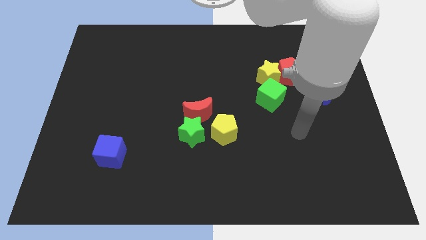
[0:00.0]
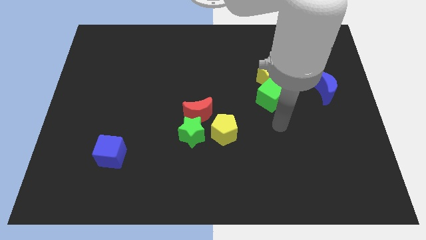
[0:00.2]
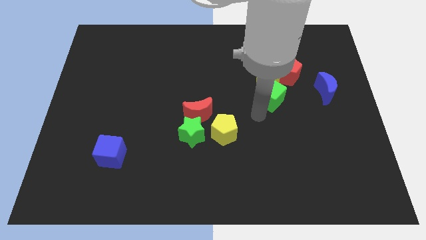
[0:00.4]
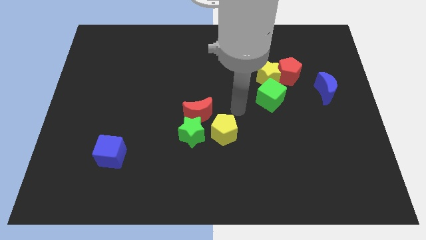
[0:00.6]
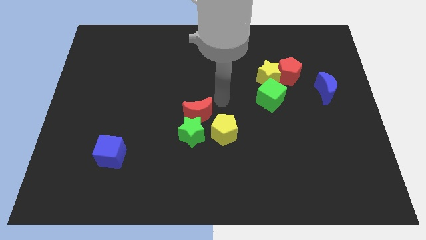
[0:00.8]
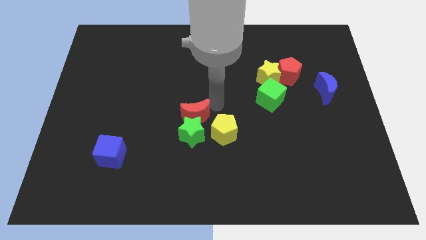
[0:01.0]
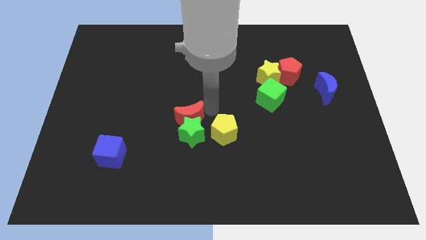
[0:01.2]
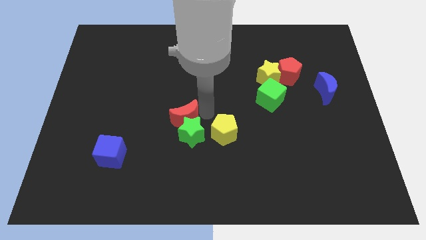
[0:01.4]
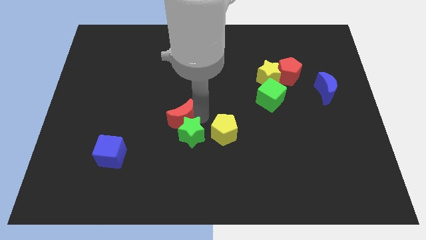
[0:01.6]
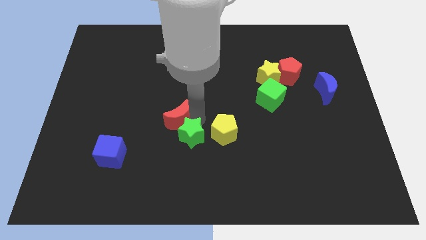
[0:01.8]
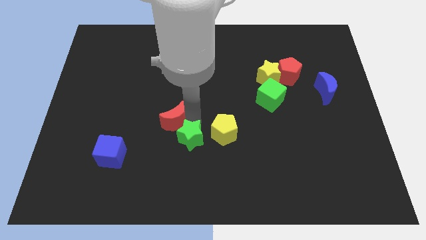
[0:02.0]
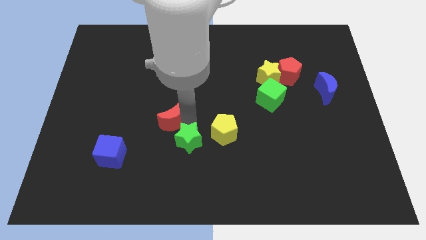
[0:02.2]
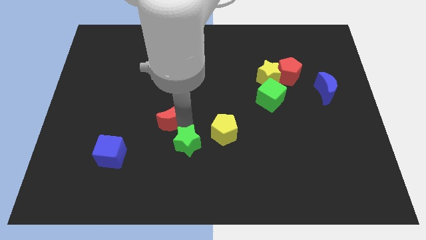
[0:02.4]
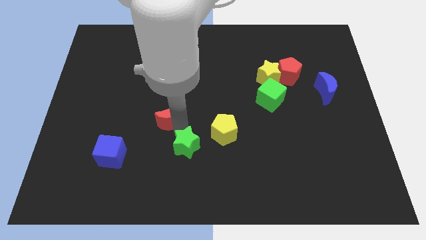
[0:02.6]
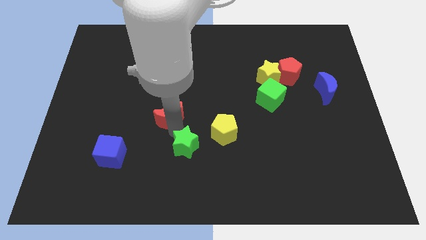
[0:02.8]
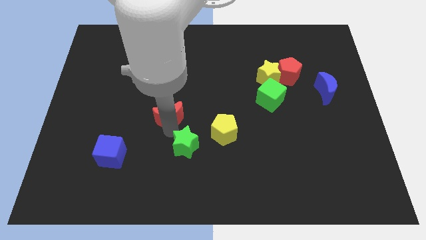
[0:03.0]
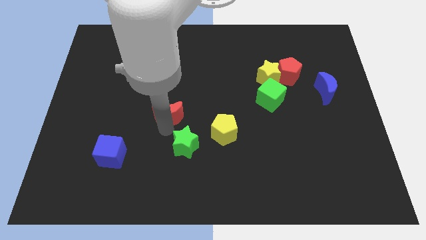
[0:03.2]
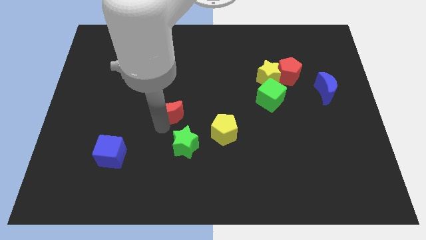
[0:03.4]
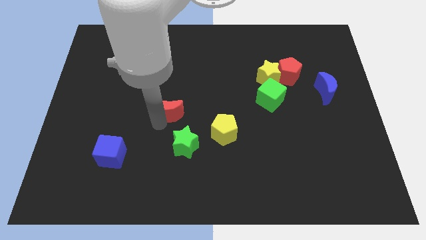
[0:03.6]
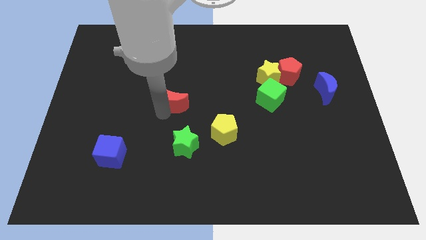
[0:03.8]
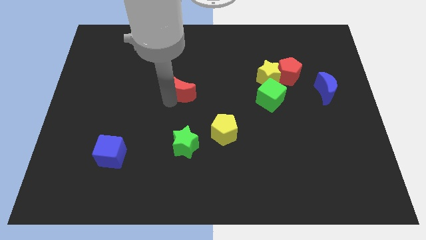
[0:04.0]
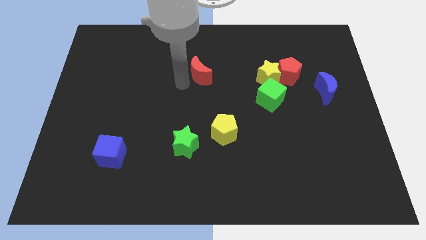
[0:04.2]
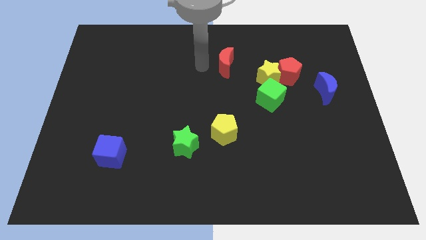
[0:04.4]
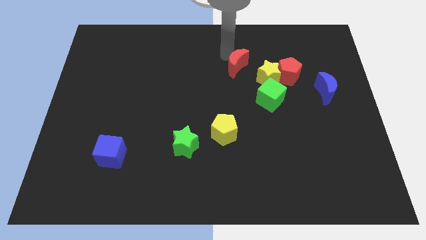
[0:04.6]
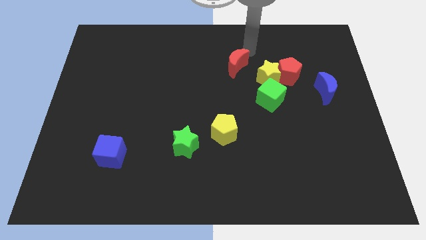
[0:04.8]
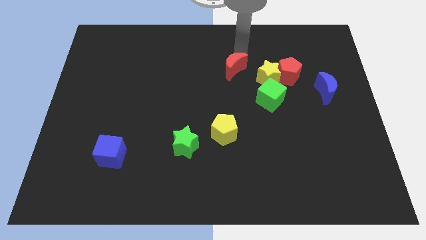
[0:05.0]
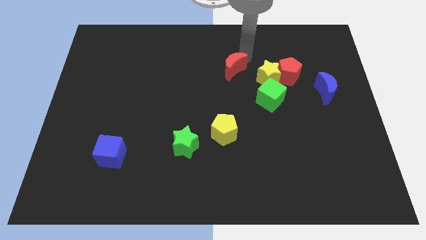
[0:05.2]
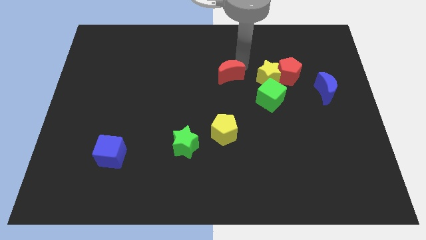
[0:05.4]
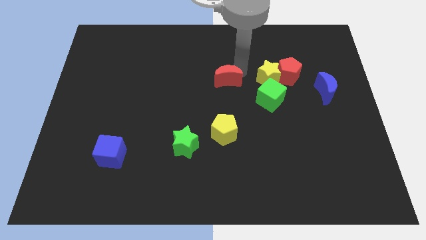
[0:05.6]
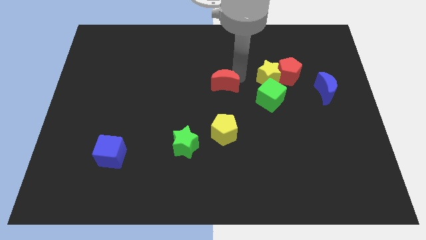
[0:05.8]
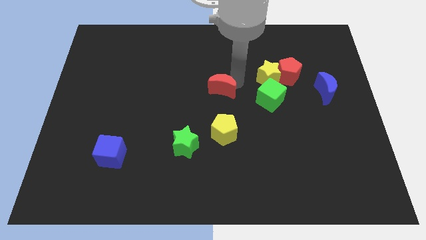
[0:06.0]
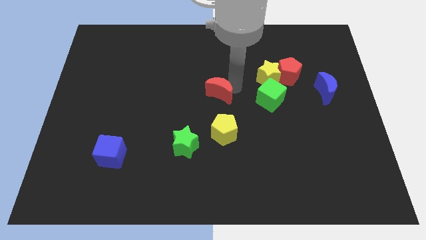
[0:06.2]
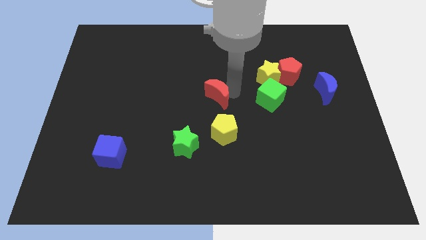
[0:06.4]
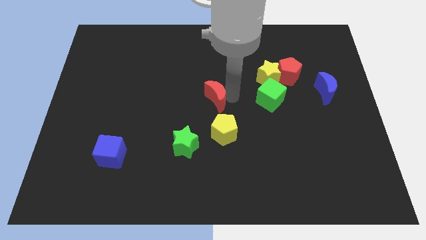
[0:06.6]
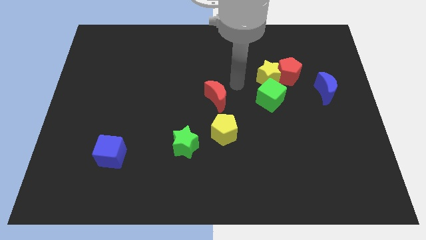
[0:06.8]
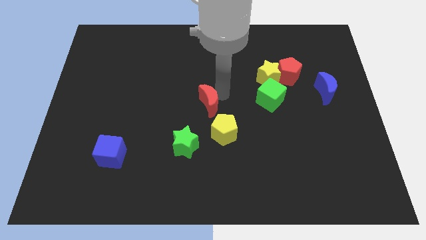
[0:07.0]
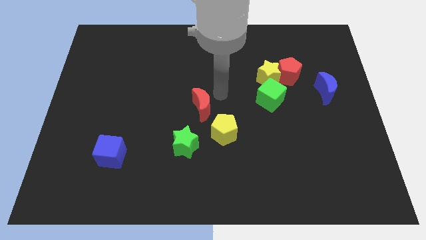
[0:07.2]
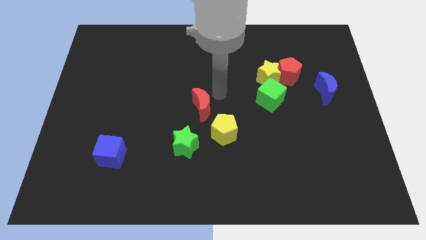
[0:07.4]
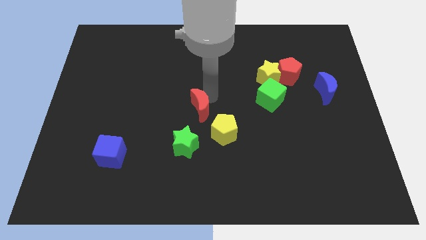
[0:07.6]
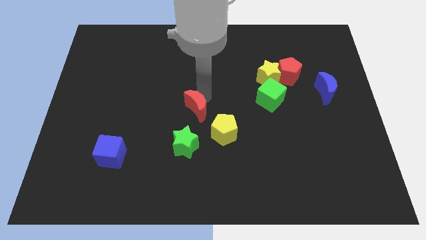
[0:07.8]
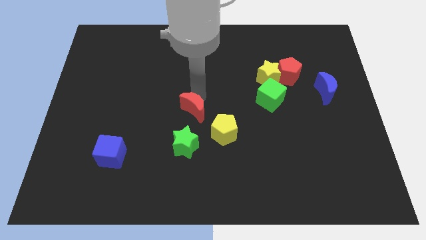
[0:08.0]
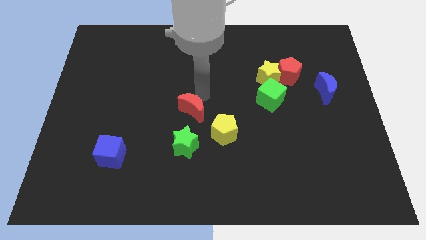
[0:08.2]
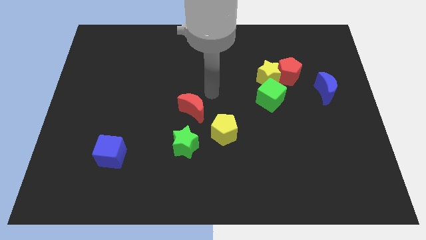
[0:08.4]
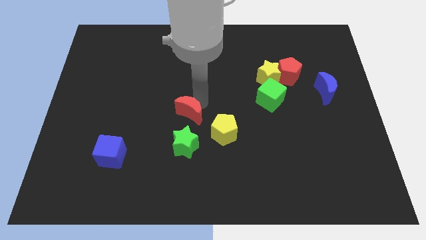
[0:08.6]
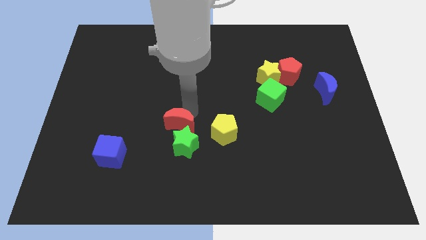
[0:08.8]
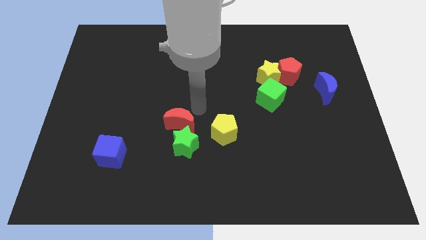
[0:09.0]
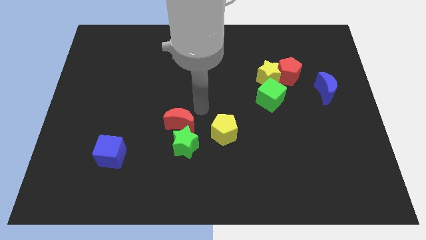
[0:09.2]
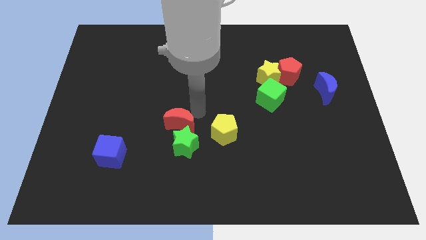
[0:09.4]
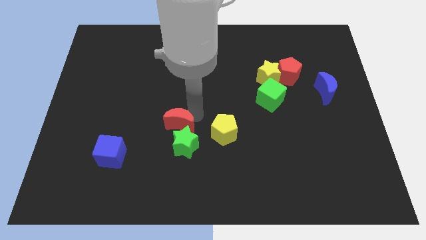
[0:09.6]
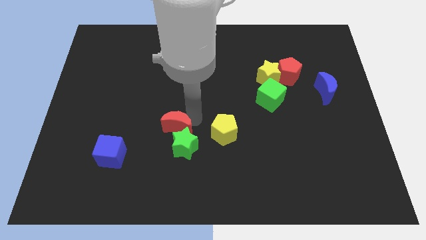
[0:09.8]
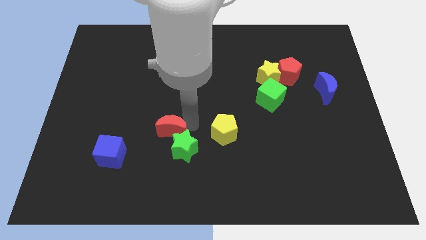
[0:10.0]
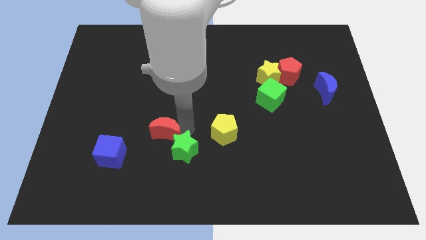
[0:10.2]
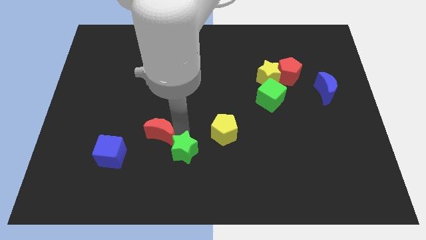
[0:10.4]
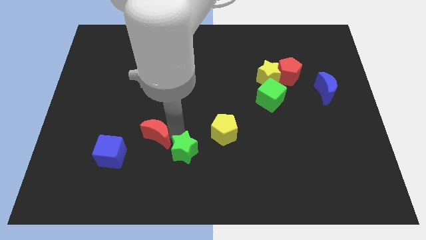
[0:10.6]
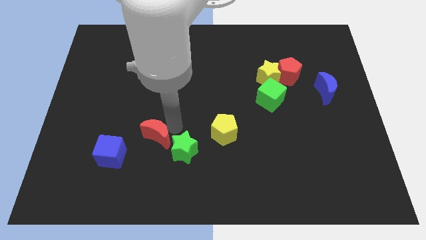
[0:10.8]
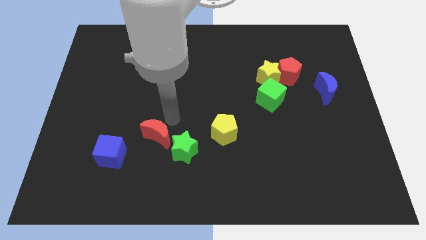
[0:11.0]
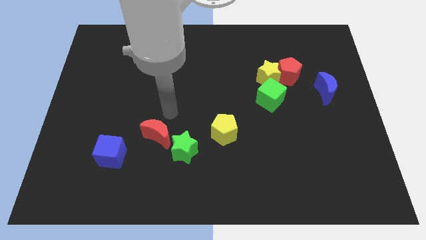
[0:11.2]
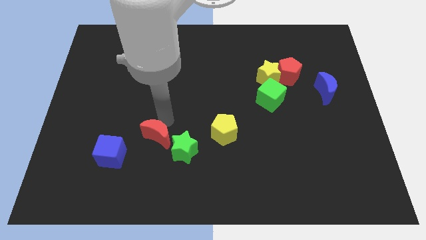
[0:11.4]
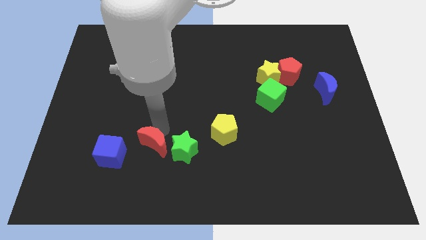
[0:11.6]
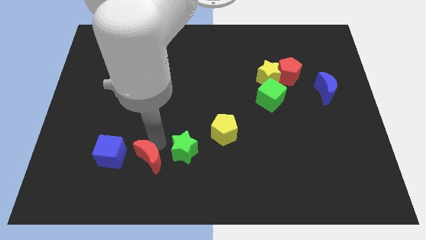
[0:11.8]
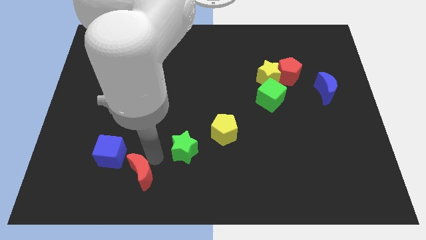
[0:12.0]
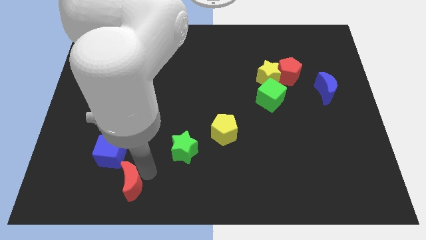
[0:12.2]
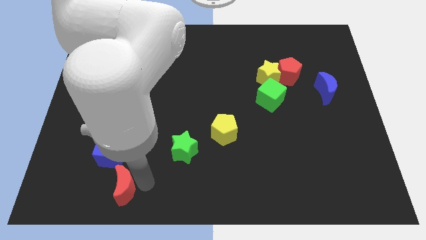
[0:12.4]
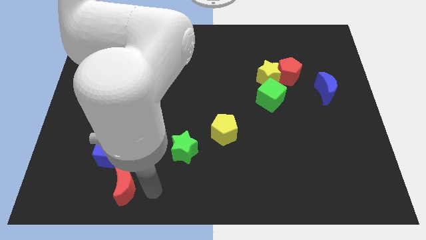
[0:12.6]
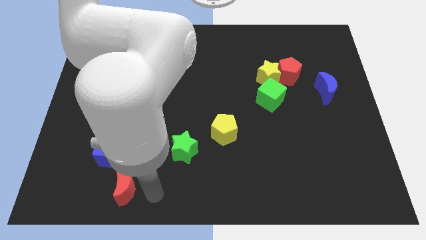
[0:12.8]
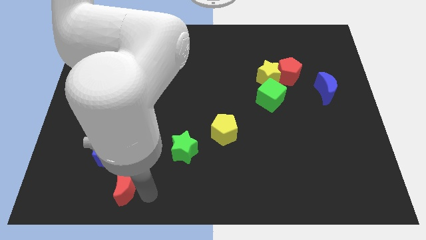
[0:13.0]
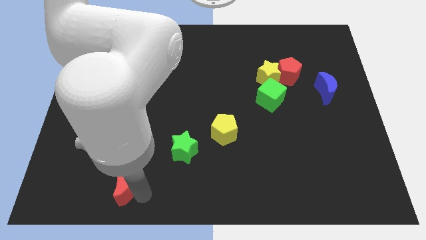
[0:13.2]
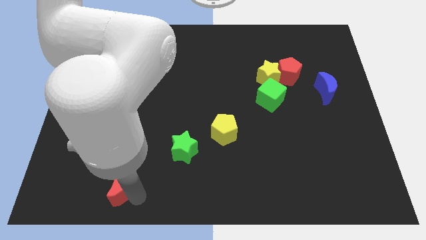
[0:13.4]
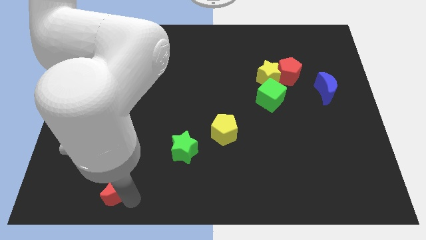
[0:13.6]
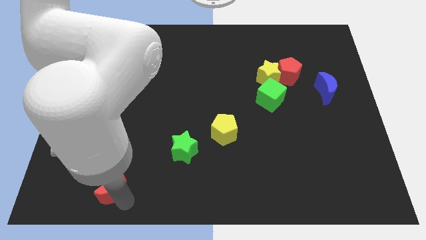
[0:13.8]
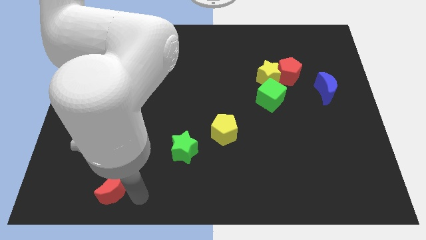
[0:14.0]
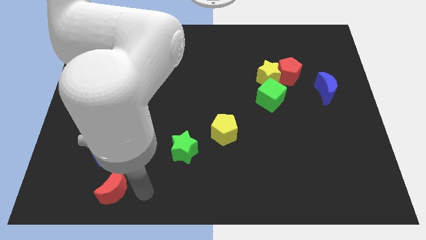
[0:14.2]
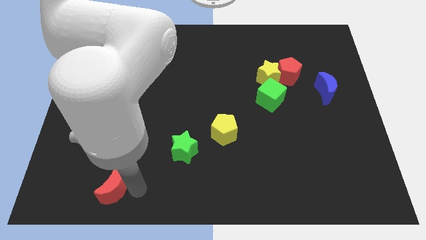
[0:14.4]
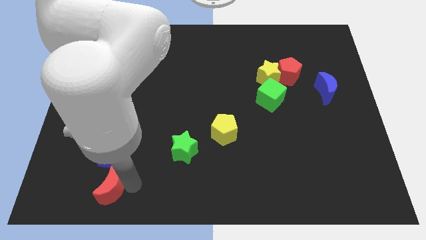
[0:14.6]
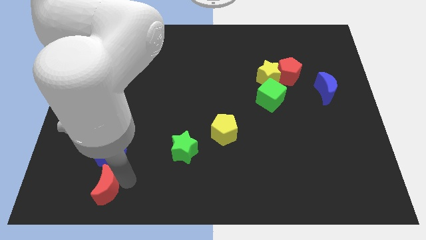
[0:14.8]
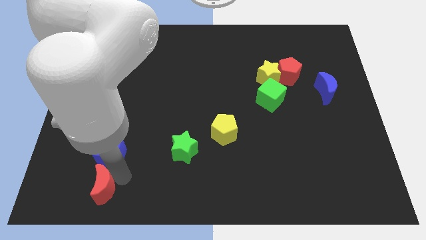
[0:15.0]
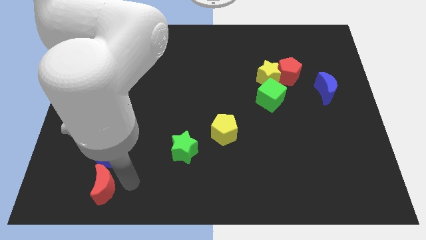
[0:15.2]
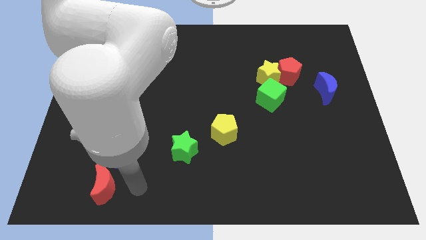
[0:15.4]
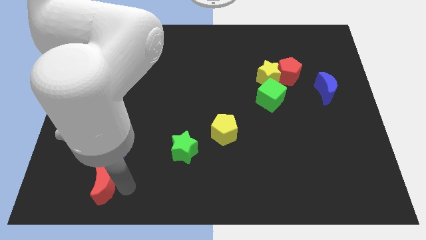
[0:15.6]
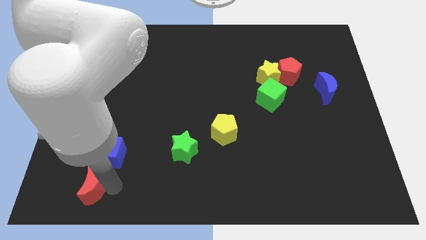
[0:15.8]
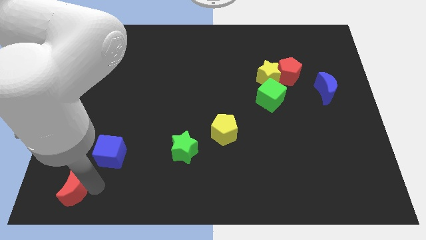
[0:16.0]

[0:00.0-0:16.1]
move the red moon to the bottom left of the board

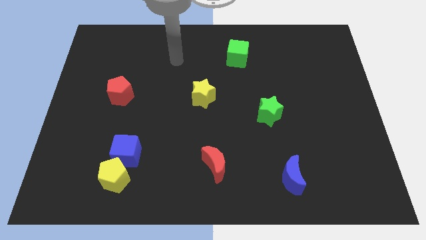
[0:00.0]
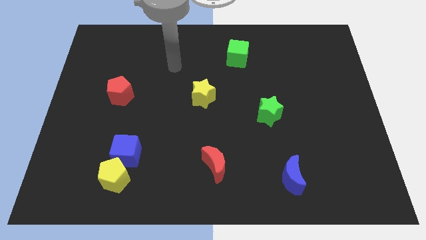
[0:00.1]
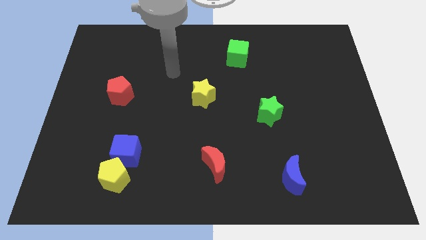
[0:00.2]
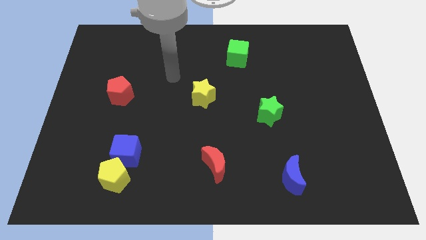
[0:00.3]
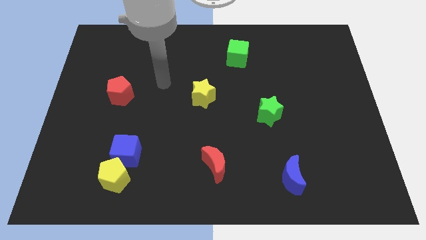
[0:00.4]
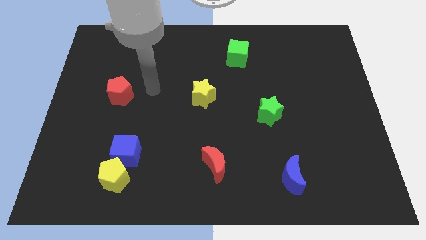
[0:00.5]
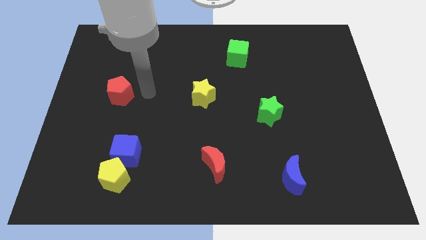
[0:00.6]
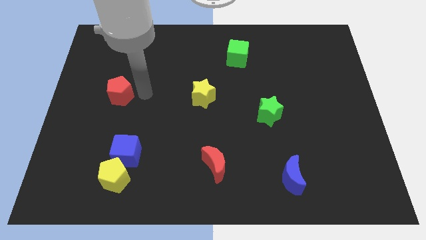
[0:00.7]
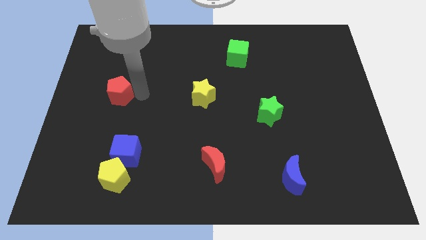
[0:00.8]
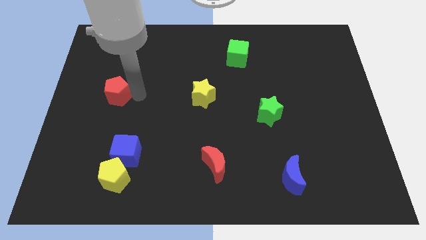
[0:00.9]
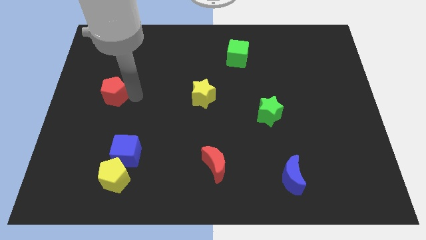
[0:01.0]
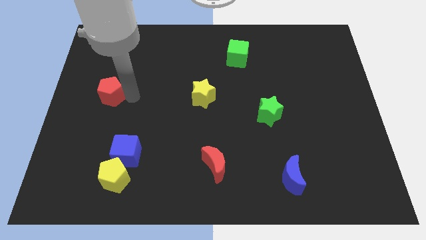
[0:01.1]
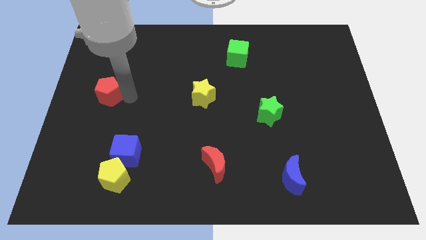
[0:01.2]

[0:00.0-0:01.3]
put the red pentagon to the center left
